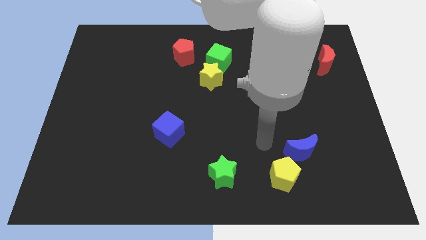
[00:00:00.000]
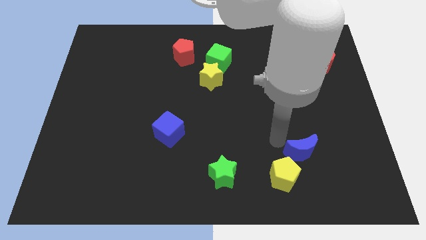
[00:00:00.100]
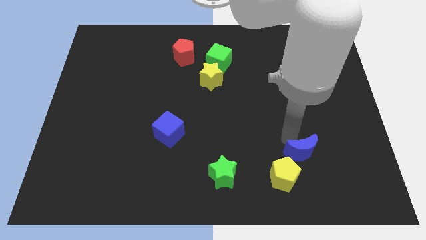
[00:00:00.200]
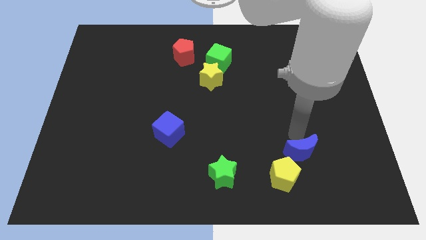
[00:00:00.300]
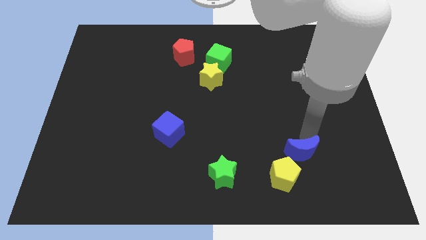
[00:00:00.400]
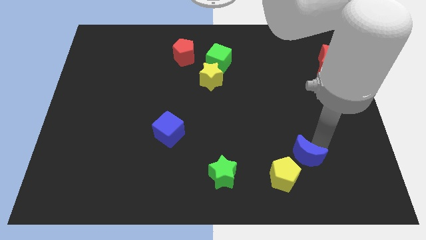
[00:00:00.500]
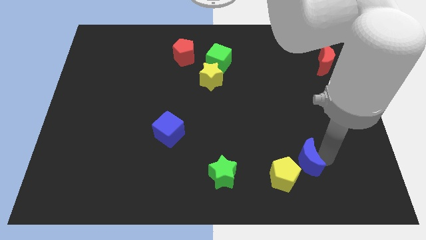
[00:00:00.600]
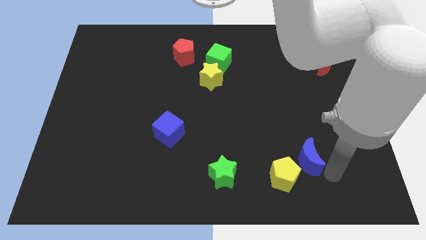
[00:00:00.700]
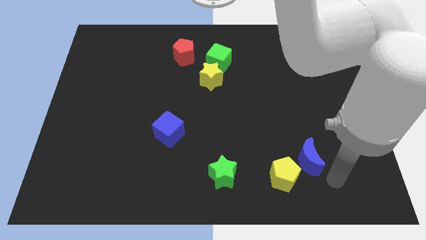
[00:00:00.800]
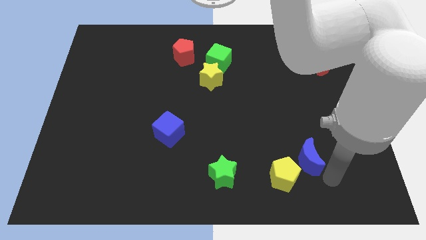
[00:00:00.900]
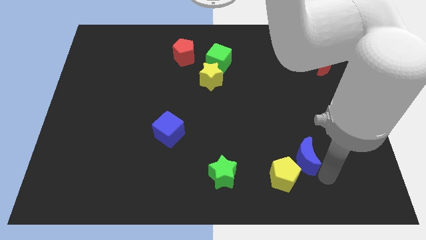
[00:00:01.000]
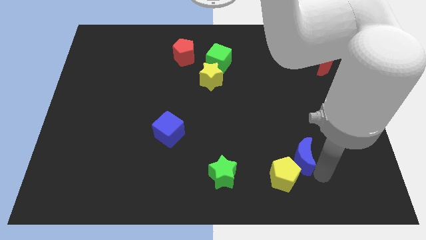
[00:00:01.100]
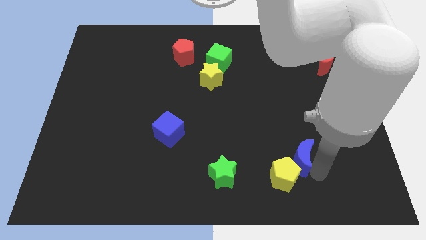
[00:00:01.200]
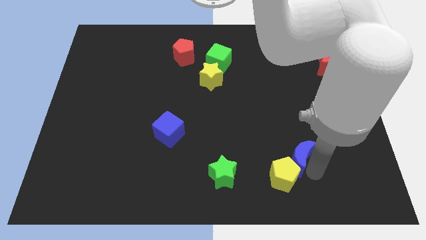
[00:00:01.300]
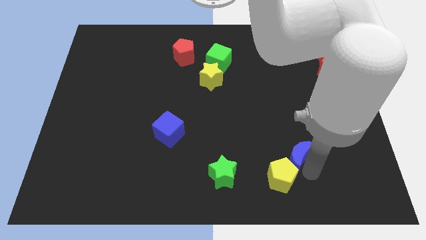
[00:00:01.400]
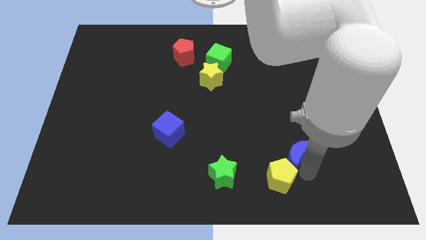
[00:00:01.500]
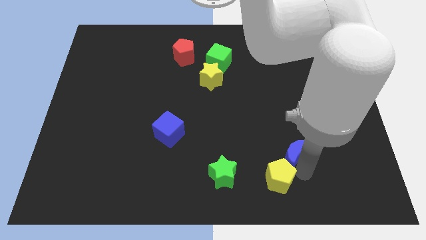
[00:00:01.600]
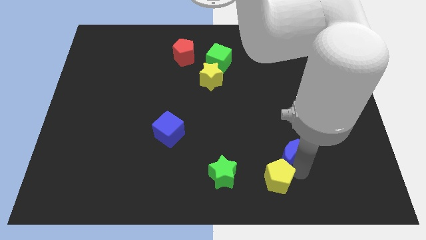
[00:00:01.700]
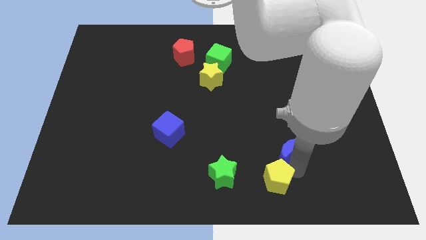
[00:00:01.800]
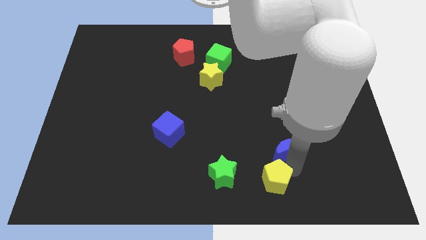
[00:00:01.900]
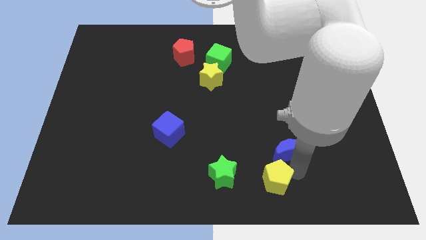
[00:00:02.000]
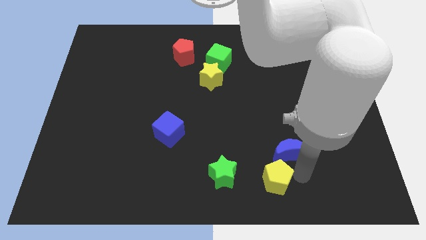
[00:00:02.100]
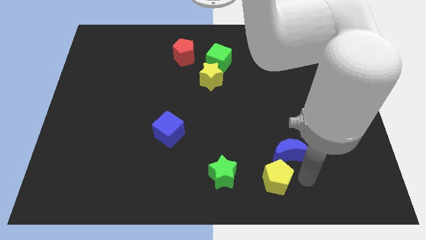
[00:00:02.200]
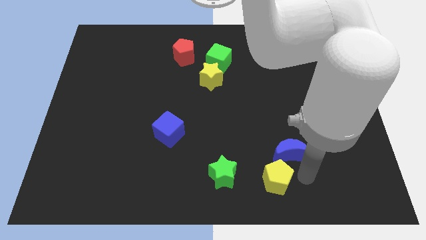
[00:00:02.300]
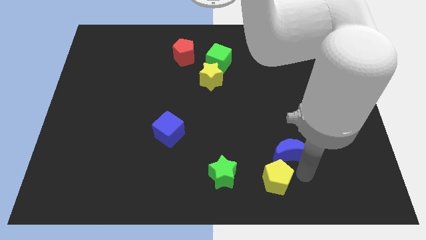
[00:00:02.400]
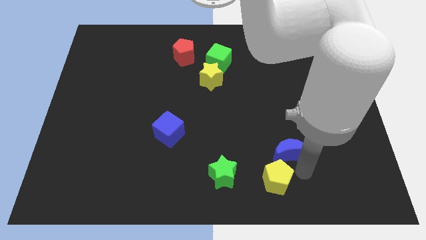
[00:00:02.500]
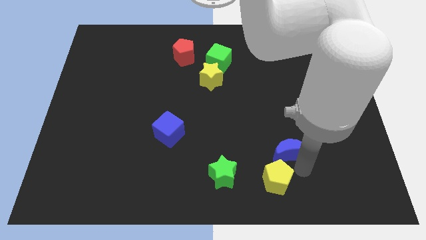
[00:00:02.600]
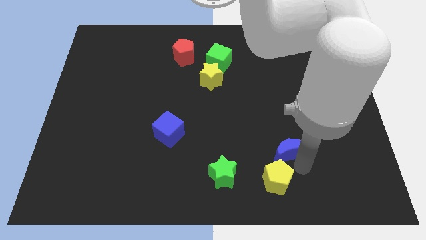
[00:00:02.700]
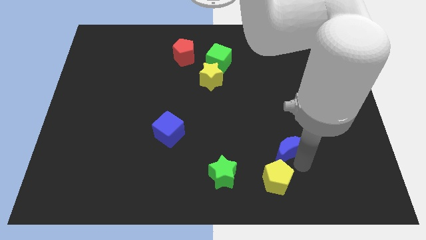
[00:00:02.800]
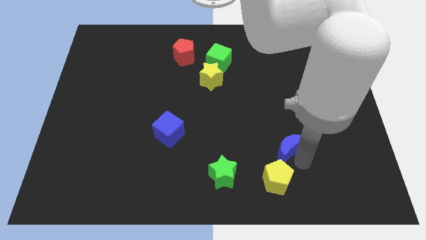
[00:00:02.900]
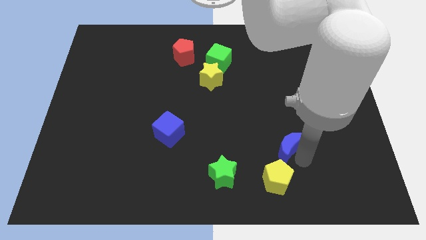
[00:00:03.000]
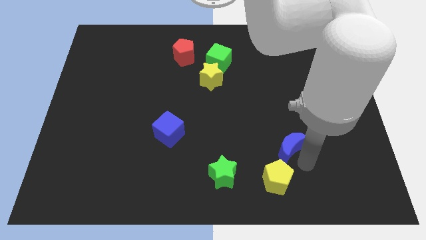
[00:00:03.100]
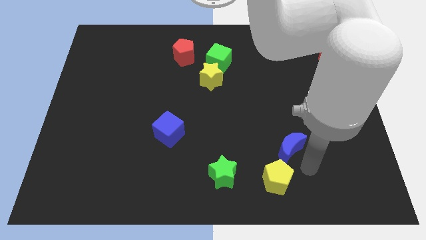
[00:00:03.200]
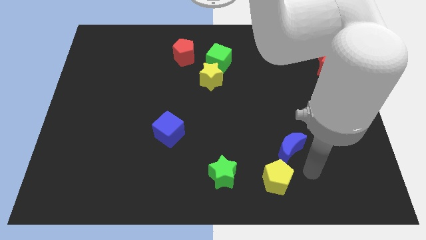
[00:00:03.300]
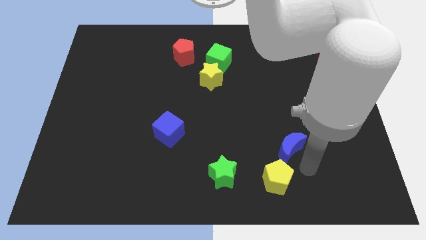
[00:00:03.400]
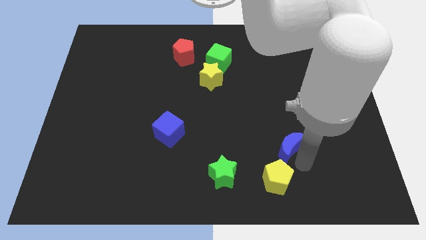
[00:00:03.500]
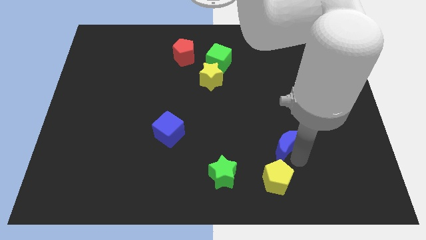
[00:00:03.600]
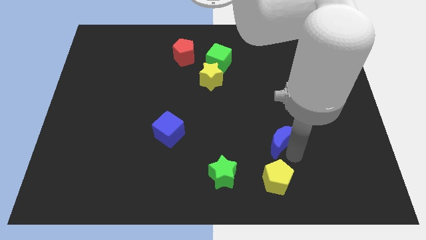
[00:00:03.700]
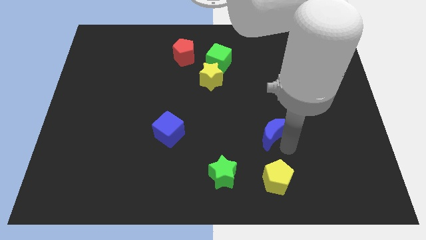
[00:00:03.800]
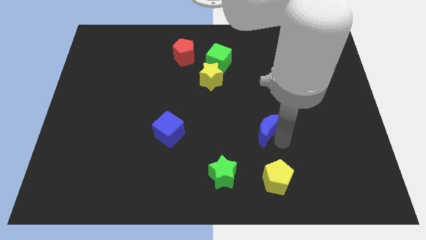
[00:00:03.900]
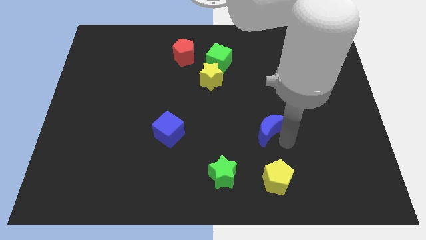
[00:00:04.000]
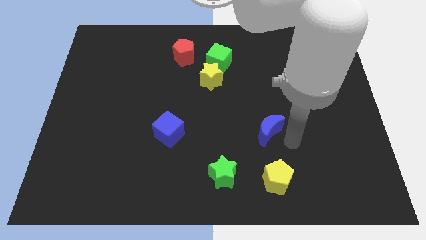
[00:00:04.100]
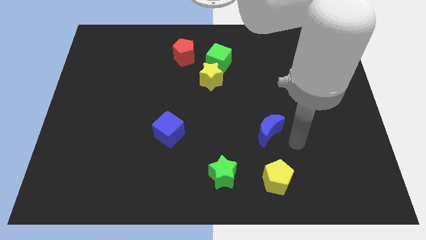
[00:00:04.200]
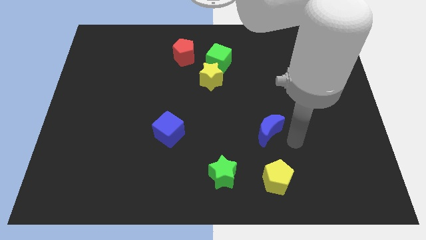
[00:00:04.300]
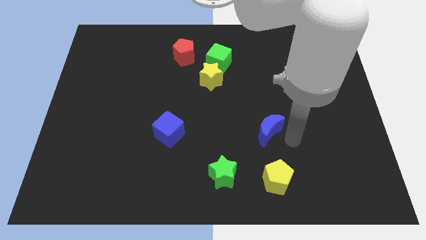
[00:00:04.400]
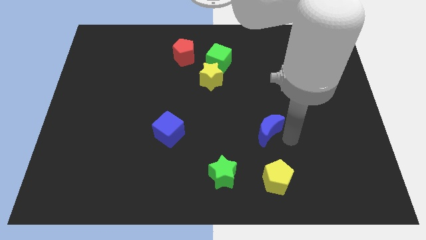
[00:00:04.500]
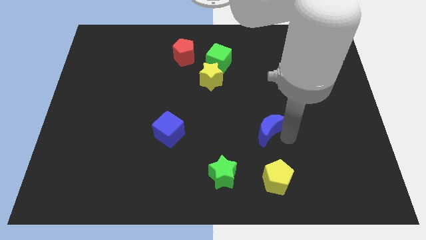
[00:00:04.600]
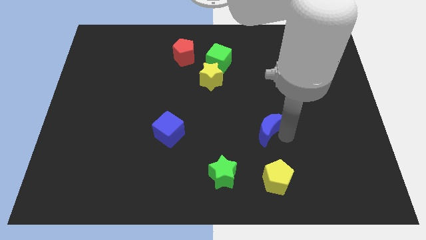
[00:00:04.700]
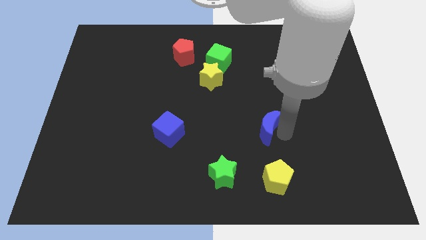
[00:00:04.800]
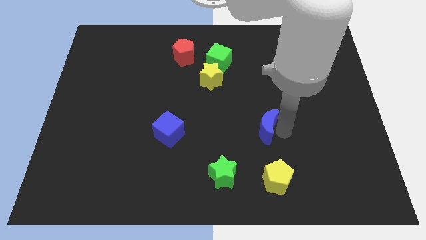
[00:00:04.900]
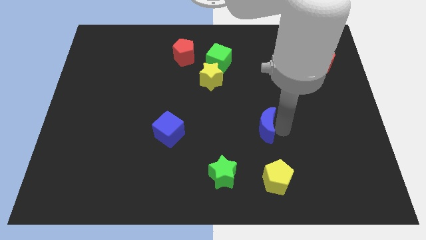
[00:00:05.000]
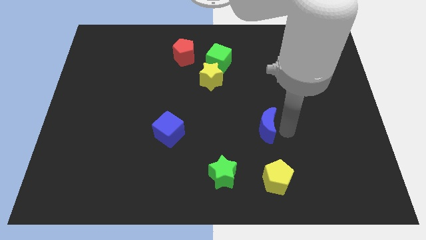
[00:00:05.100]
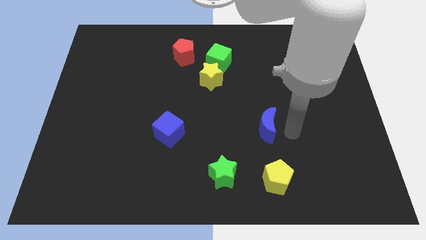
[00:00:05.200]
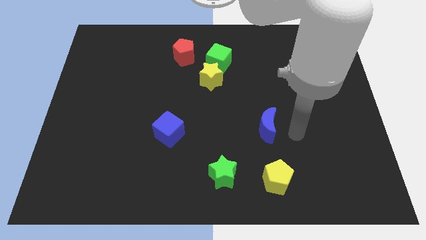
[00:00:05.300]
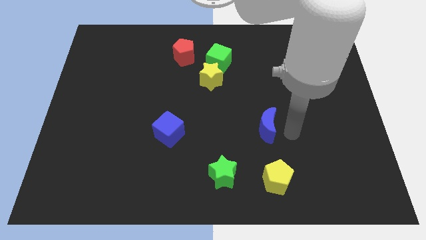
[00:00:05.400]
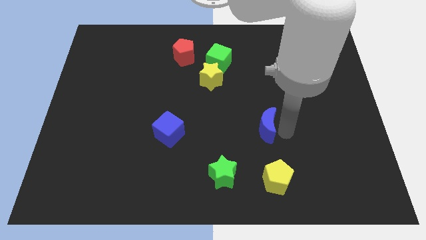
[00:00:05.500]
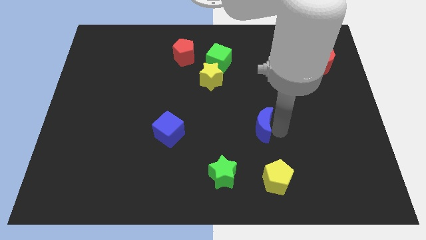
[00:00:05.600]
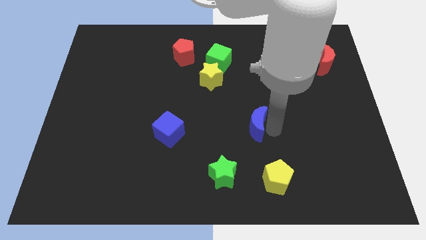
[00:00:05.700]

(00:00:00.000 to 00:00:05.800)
put the blue moon to the middle

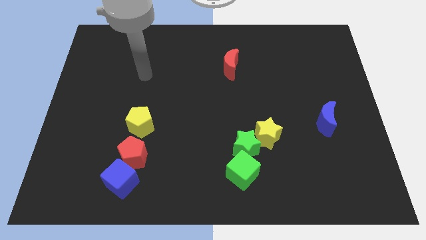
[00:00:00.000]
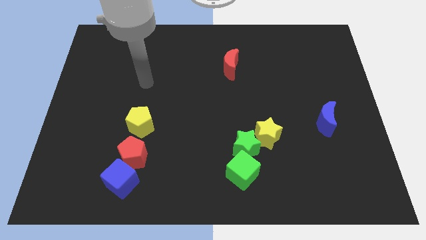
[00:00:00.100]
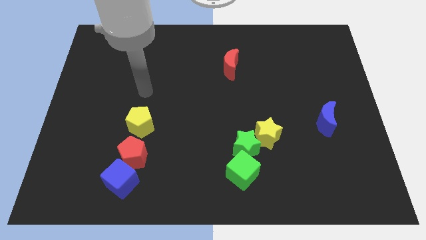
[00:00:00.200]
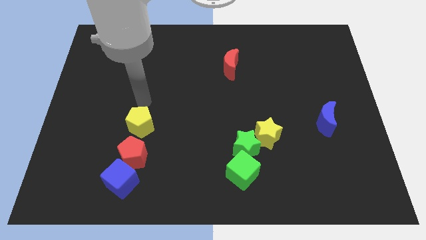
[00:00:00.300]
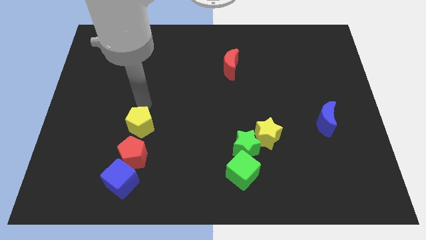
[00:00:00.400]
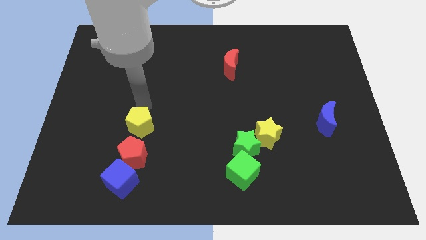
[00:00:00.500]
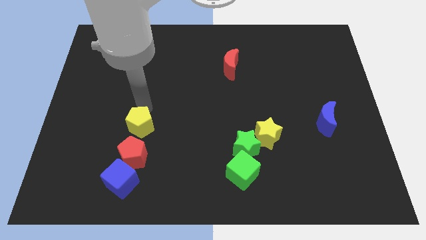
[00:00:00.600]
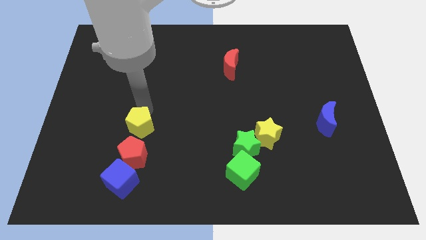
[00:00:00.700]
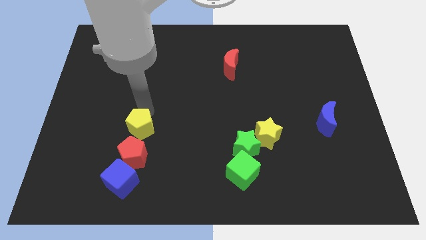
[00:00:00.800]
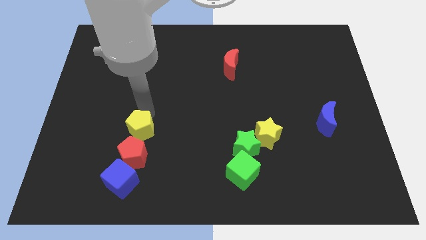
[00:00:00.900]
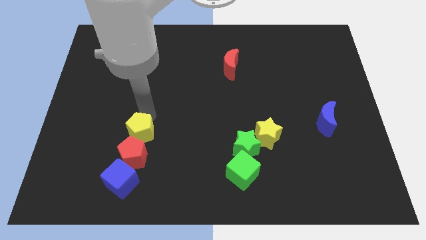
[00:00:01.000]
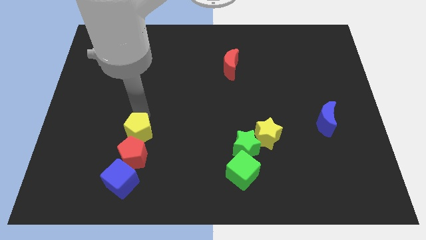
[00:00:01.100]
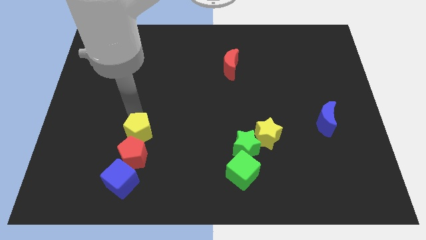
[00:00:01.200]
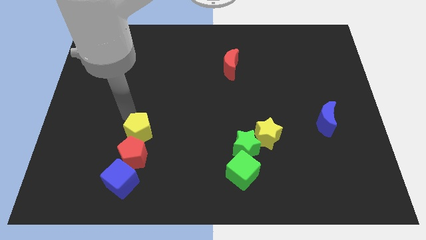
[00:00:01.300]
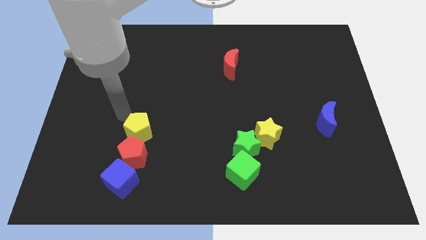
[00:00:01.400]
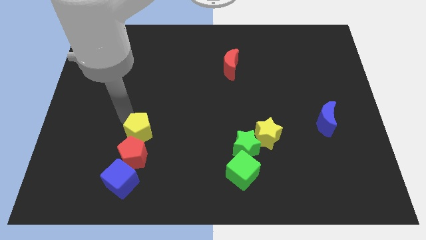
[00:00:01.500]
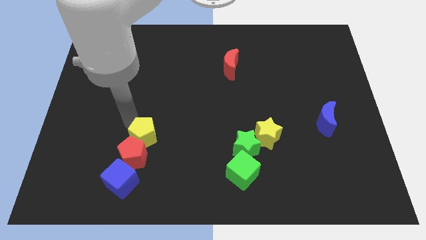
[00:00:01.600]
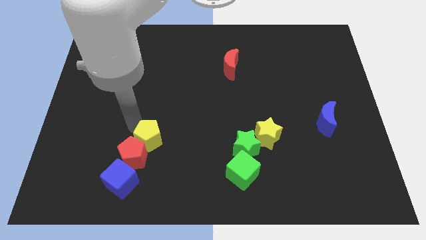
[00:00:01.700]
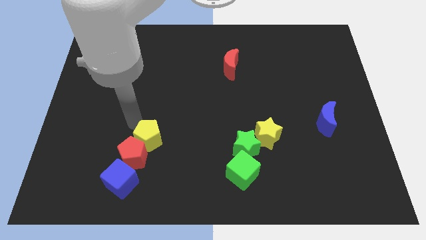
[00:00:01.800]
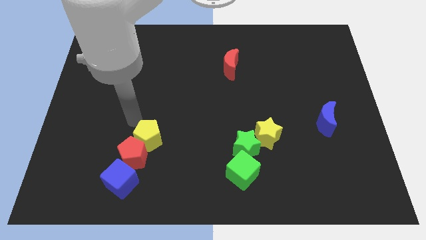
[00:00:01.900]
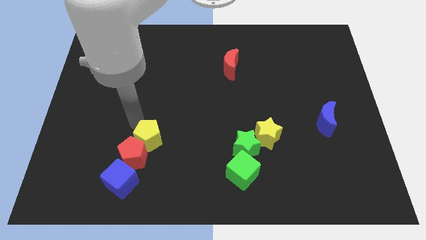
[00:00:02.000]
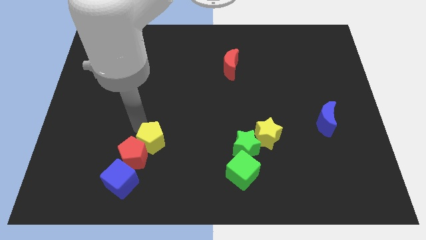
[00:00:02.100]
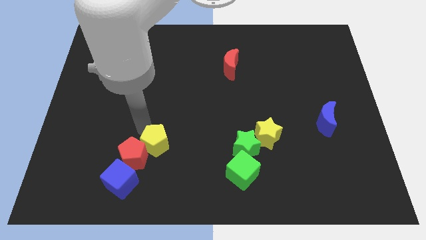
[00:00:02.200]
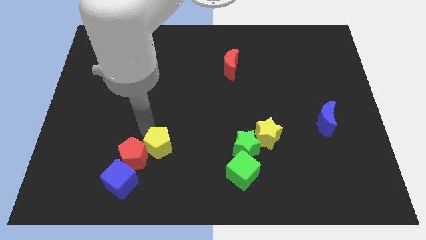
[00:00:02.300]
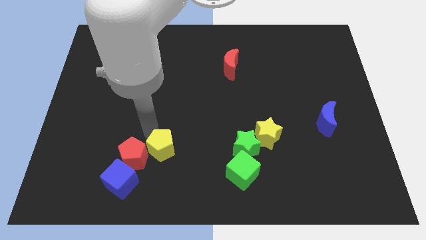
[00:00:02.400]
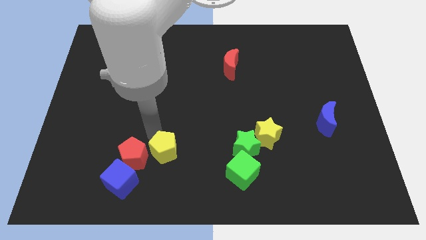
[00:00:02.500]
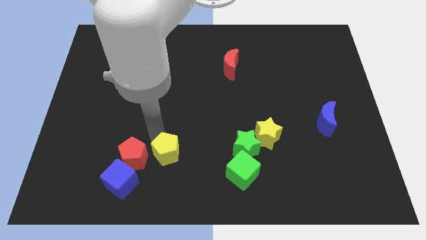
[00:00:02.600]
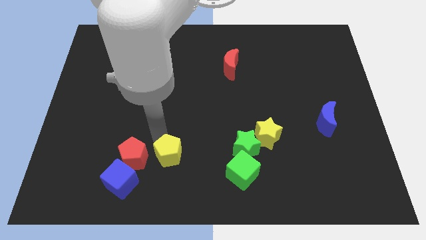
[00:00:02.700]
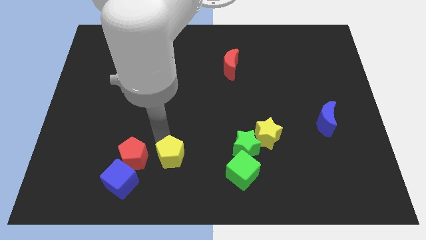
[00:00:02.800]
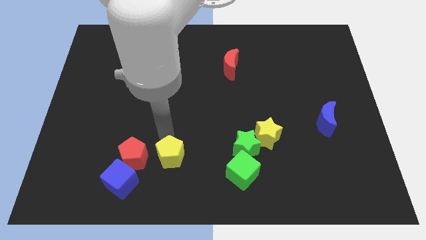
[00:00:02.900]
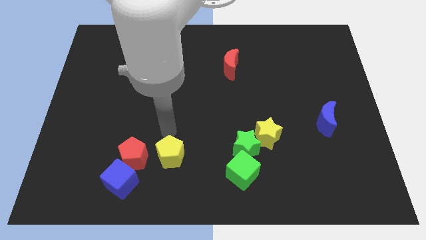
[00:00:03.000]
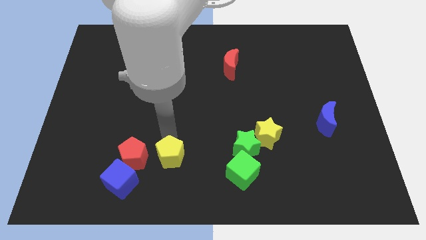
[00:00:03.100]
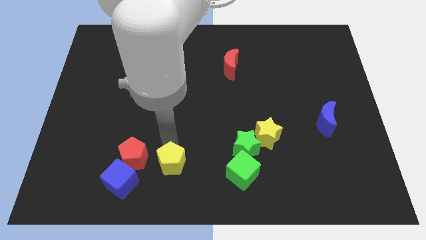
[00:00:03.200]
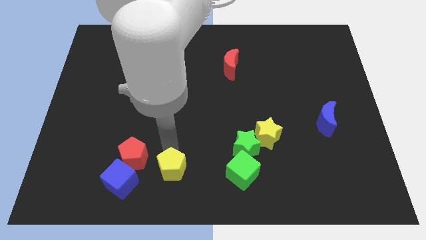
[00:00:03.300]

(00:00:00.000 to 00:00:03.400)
slide the yellow pentagon to the bottom
